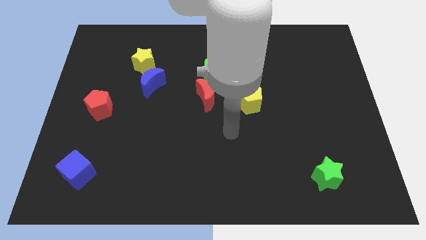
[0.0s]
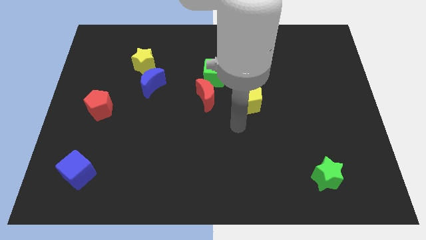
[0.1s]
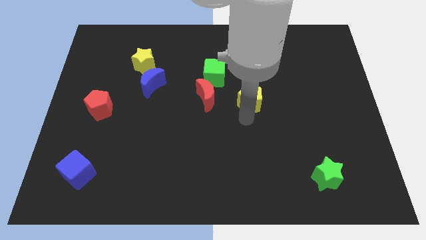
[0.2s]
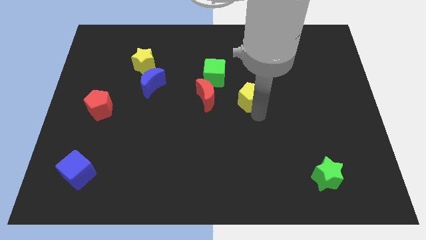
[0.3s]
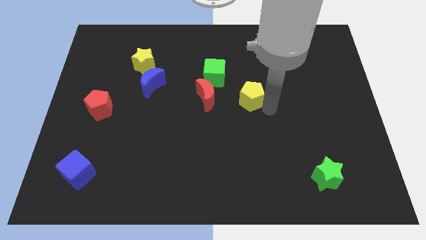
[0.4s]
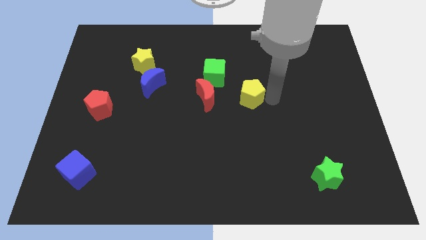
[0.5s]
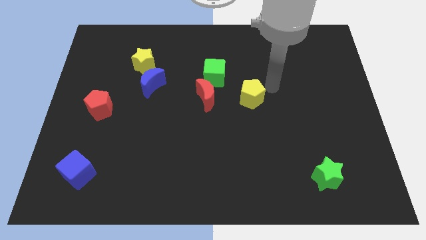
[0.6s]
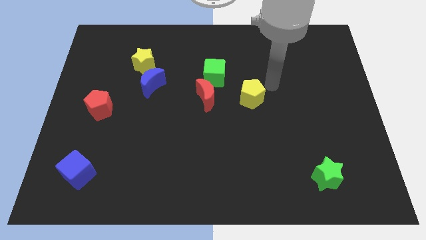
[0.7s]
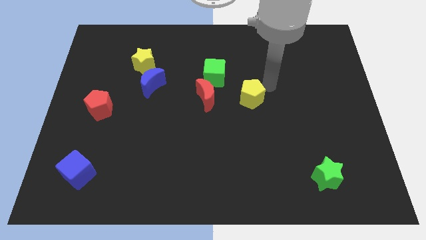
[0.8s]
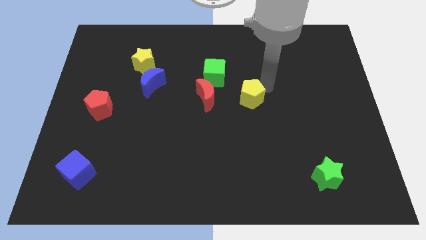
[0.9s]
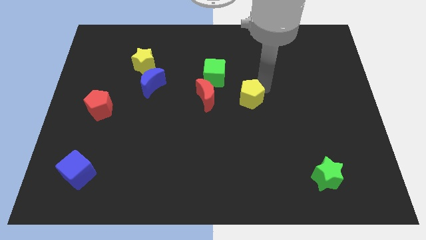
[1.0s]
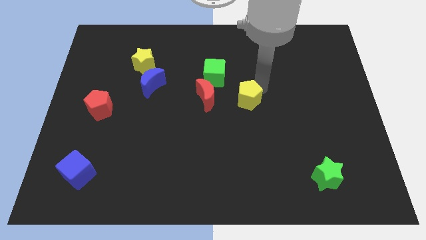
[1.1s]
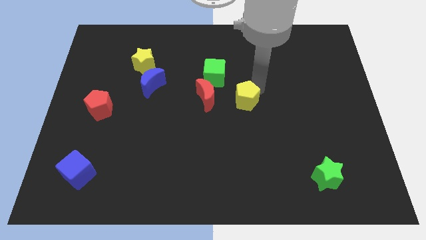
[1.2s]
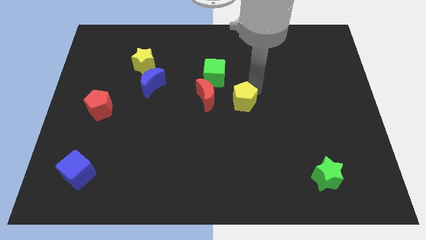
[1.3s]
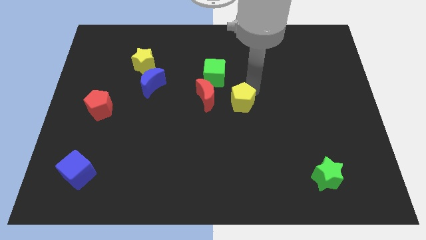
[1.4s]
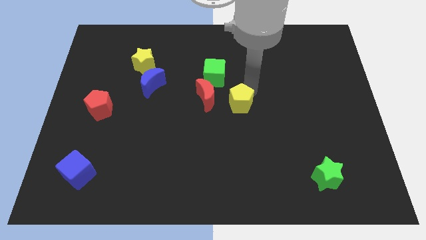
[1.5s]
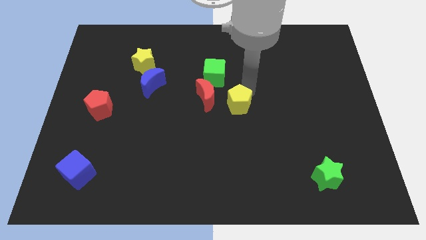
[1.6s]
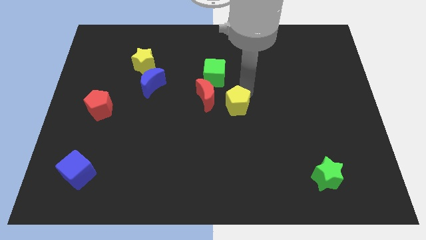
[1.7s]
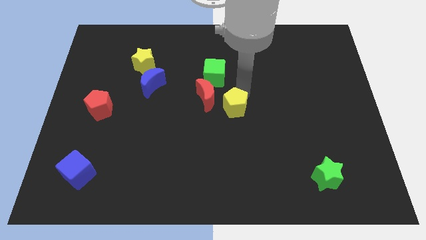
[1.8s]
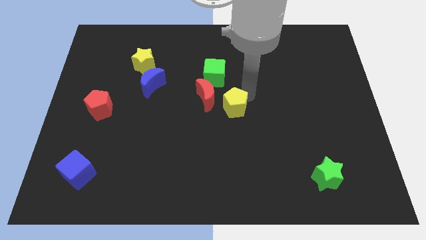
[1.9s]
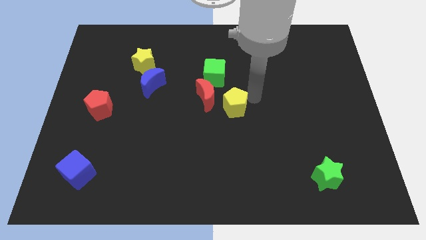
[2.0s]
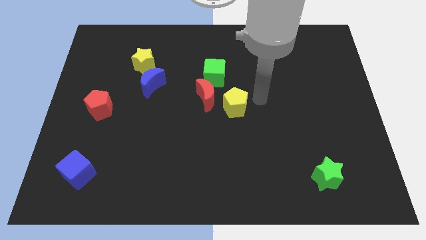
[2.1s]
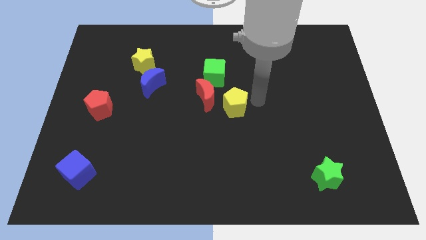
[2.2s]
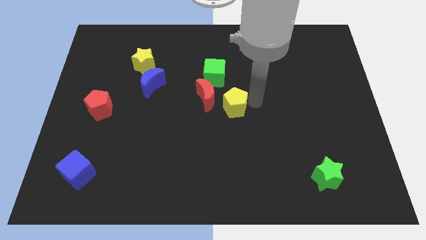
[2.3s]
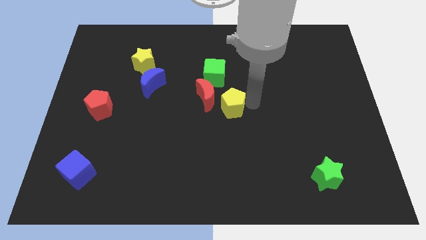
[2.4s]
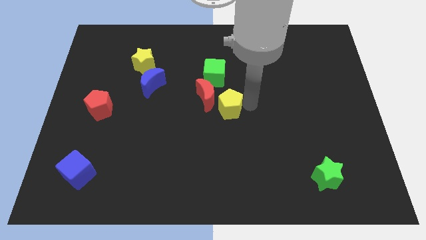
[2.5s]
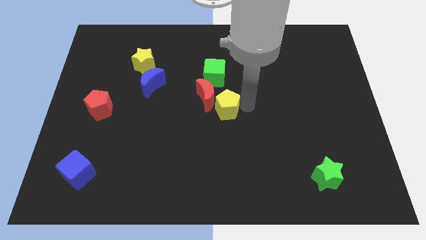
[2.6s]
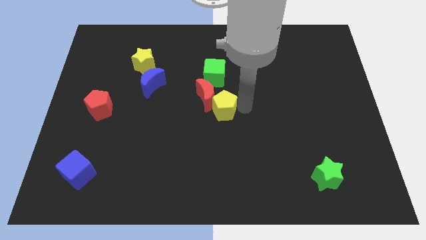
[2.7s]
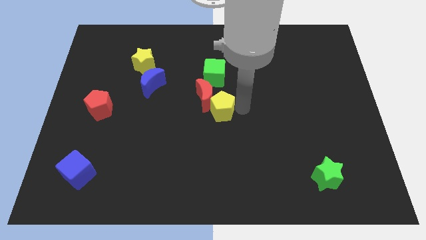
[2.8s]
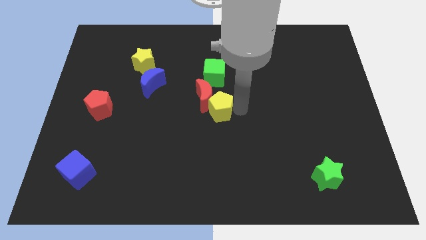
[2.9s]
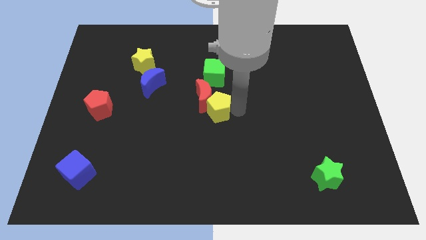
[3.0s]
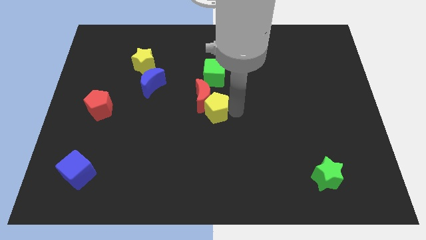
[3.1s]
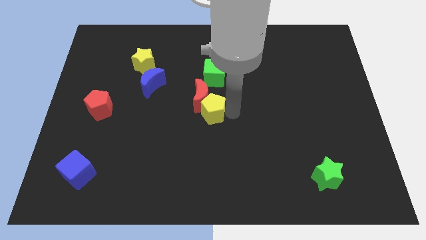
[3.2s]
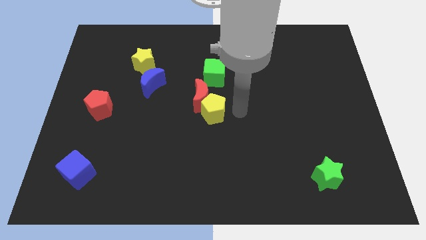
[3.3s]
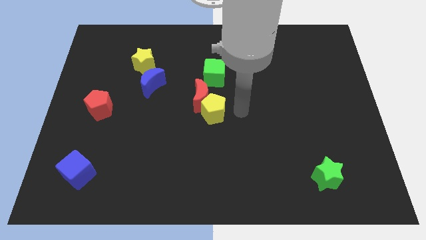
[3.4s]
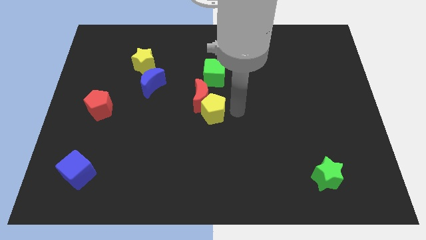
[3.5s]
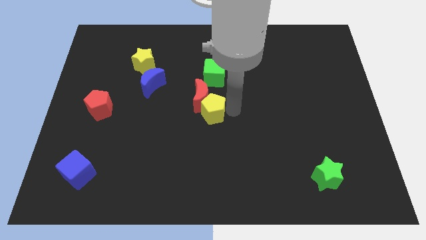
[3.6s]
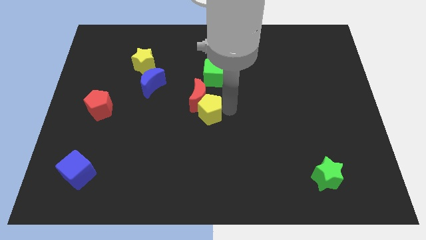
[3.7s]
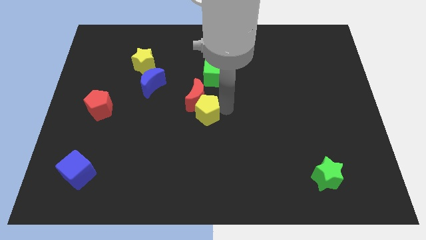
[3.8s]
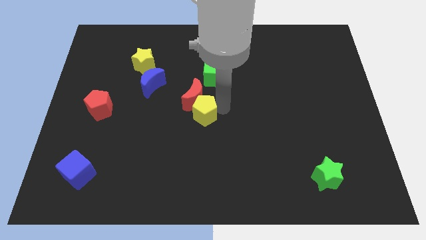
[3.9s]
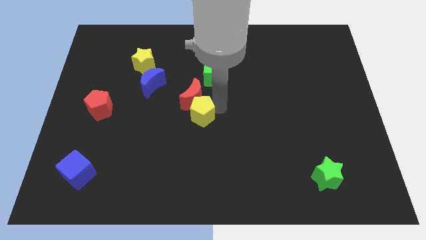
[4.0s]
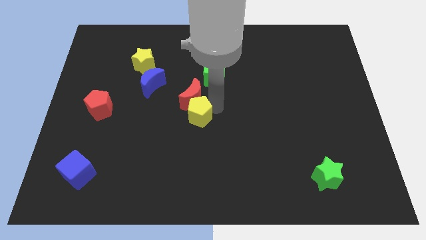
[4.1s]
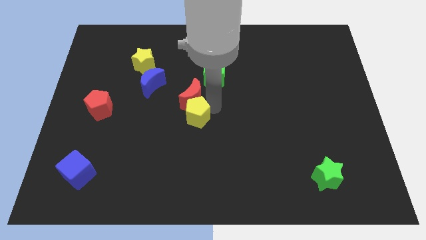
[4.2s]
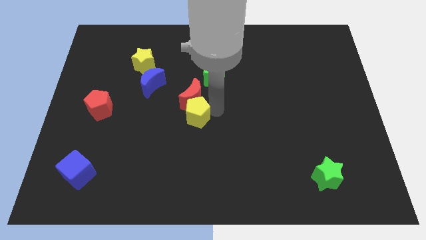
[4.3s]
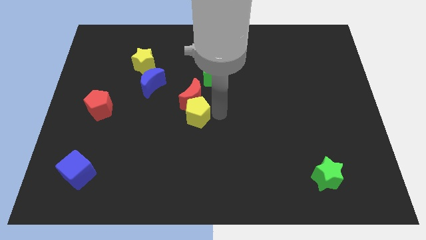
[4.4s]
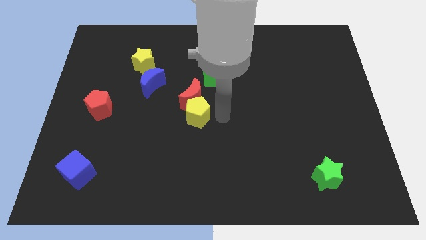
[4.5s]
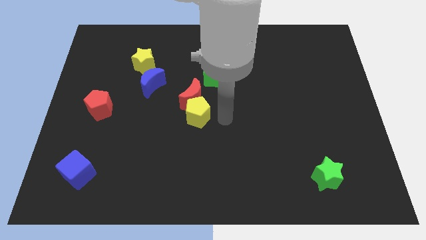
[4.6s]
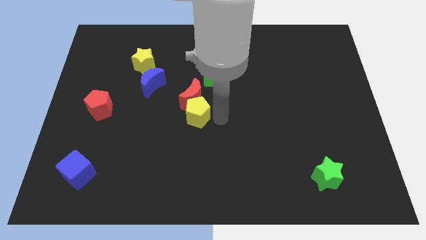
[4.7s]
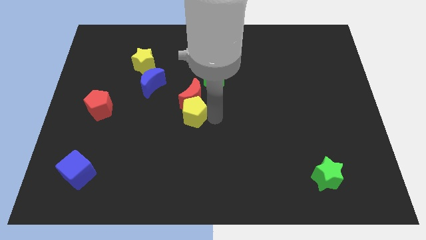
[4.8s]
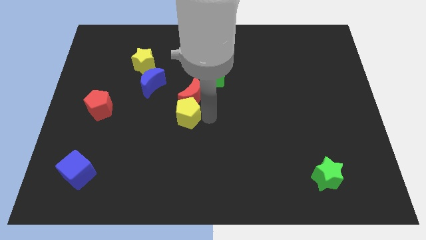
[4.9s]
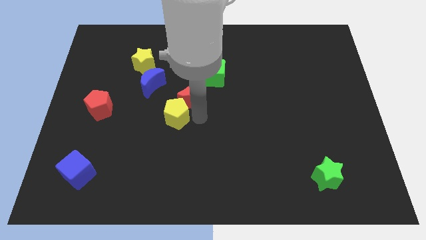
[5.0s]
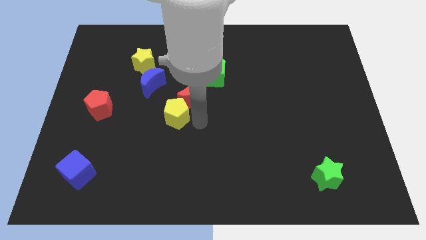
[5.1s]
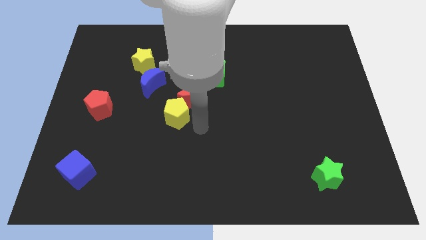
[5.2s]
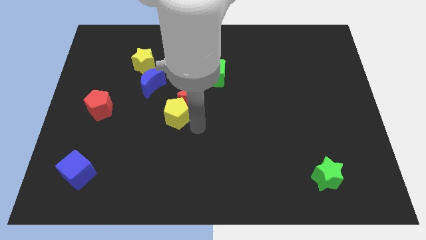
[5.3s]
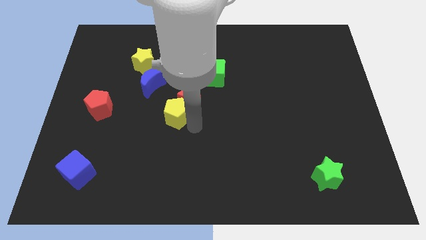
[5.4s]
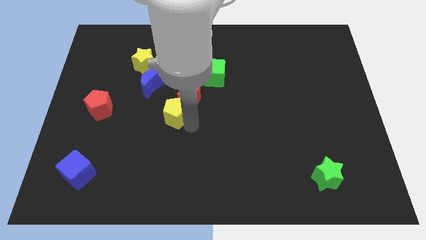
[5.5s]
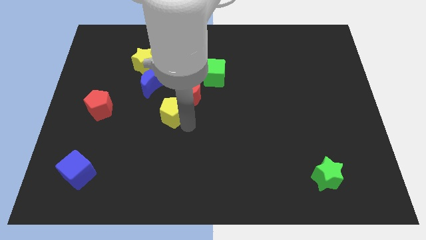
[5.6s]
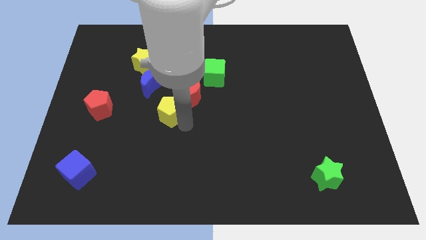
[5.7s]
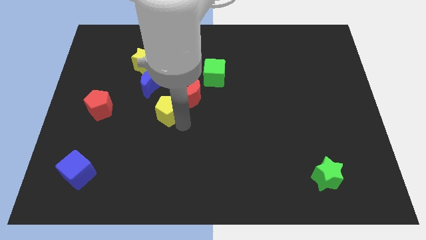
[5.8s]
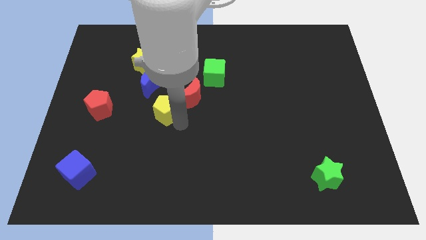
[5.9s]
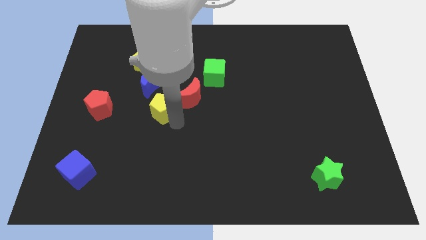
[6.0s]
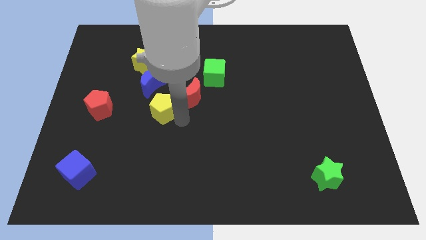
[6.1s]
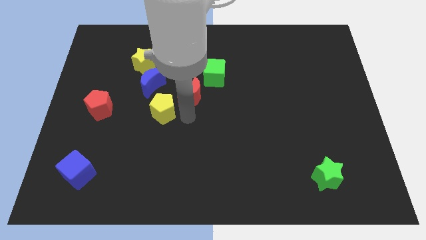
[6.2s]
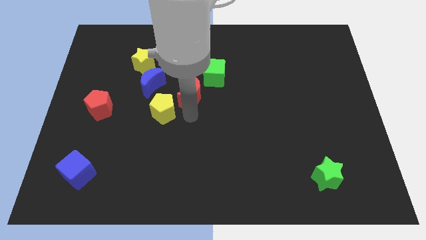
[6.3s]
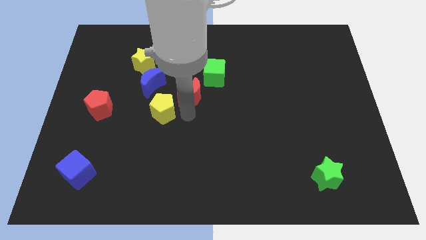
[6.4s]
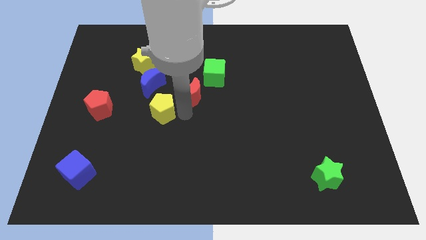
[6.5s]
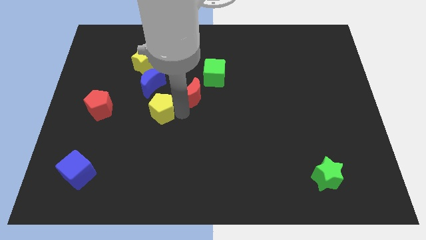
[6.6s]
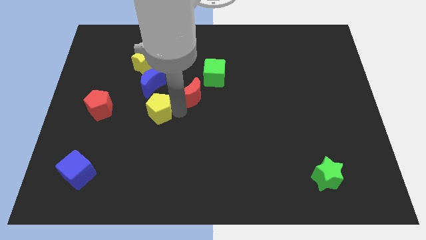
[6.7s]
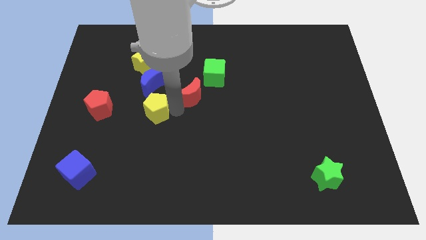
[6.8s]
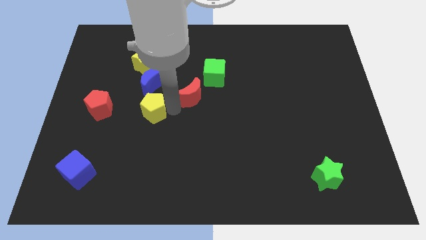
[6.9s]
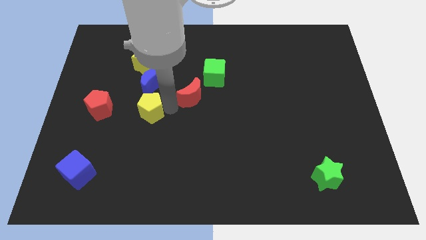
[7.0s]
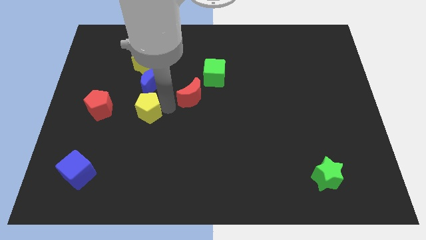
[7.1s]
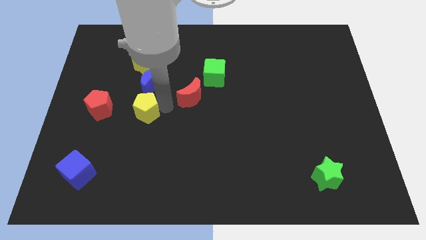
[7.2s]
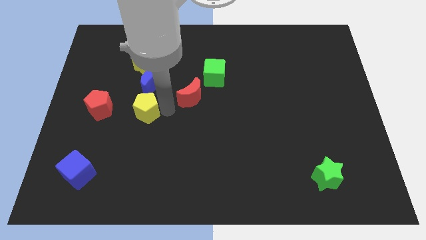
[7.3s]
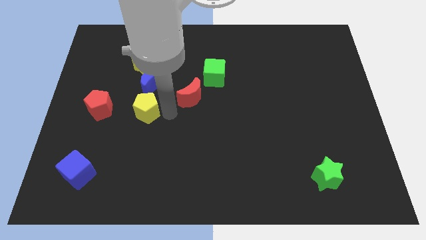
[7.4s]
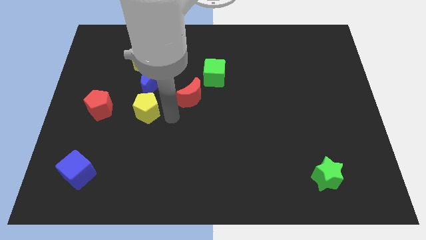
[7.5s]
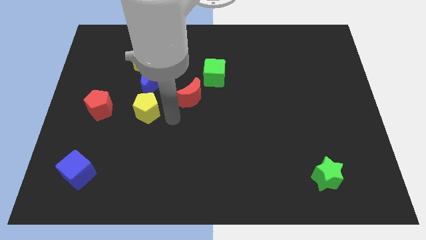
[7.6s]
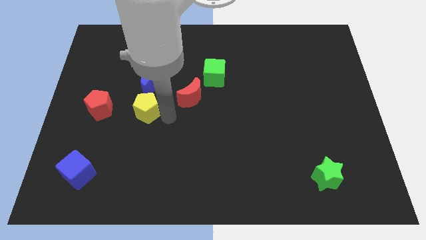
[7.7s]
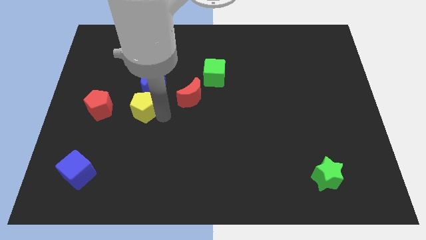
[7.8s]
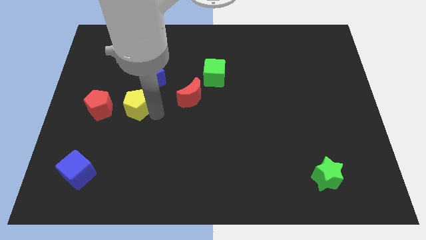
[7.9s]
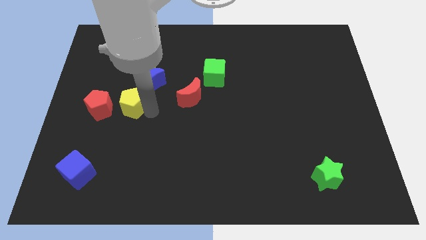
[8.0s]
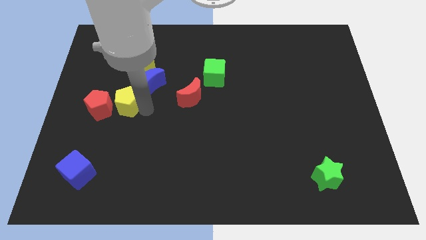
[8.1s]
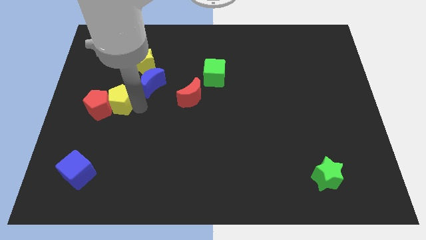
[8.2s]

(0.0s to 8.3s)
put the yellow pentagon close to the red pentagon
